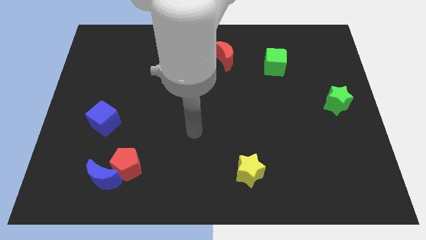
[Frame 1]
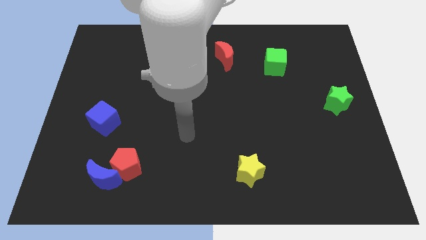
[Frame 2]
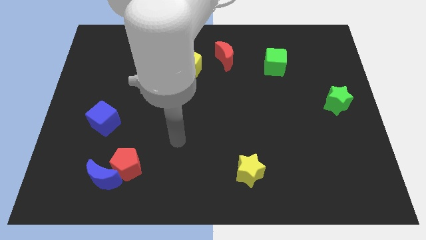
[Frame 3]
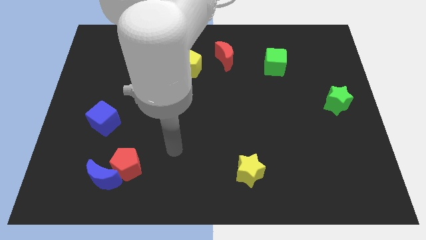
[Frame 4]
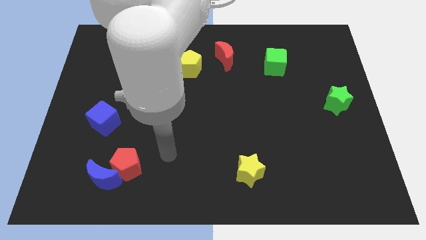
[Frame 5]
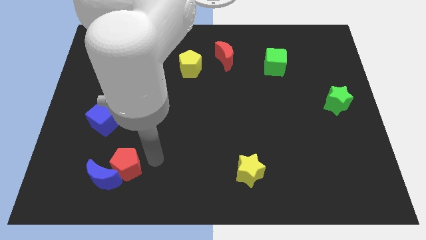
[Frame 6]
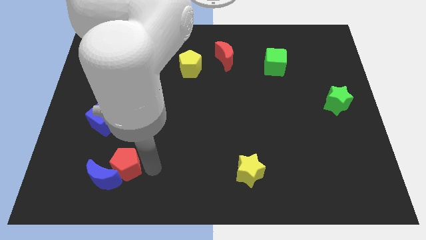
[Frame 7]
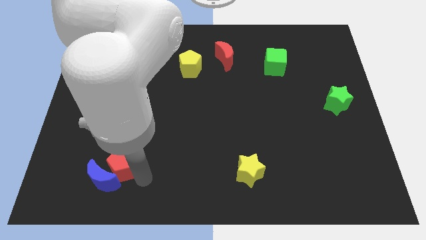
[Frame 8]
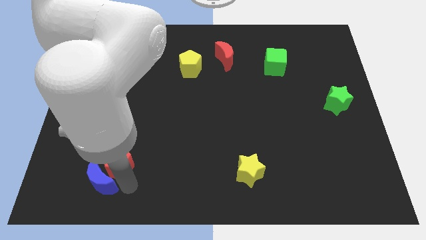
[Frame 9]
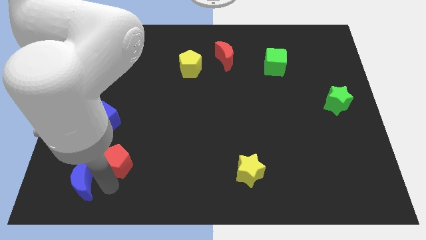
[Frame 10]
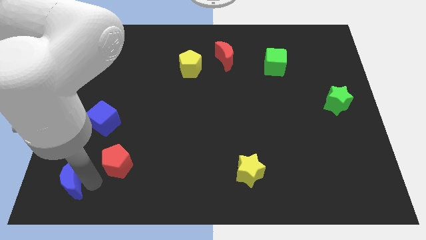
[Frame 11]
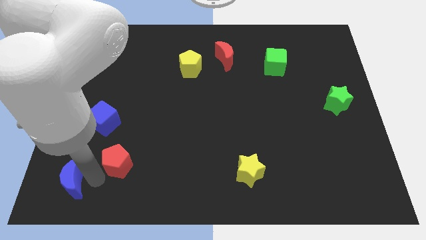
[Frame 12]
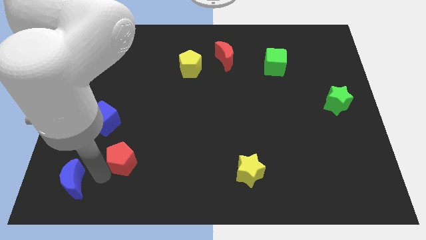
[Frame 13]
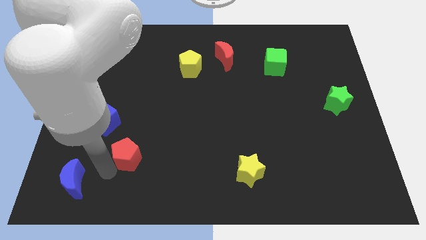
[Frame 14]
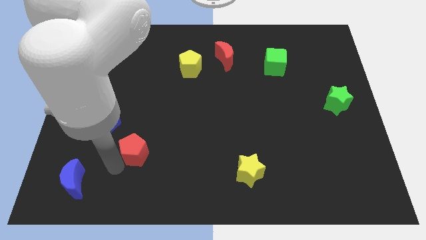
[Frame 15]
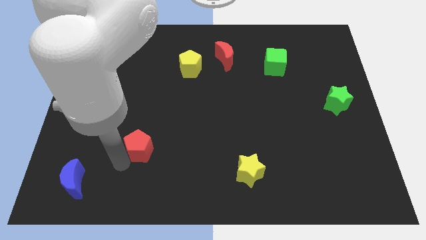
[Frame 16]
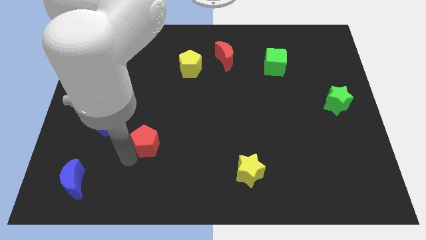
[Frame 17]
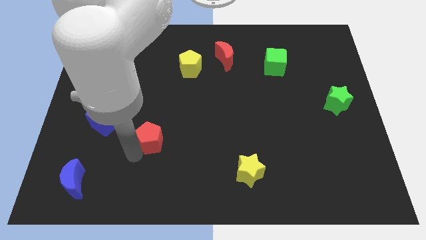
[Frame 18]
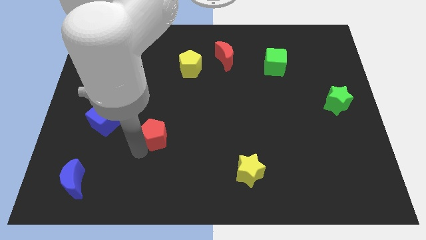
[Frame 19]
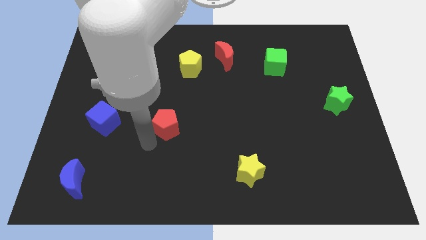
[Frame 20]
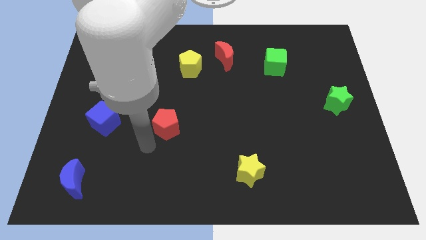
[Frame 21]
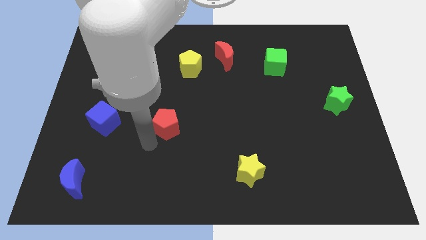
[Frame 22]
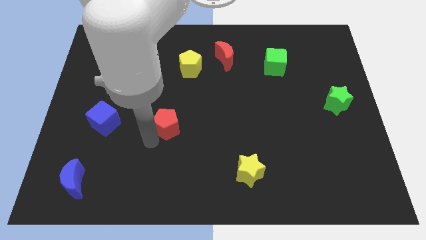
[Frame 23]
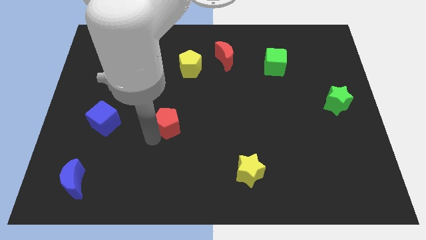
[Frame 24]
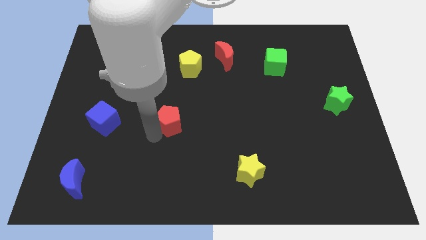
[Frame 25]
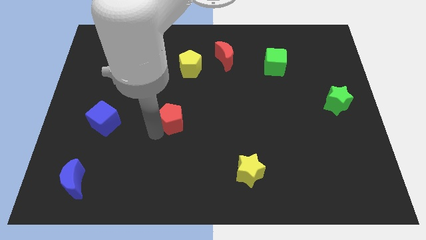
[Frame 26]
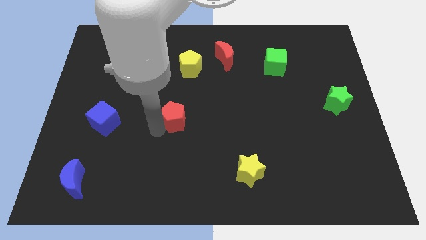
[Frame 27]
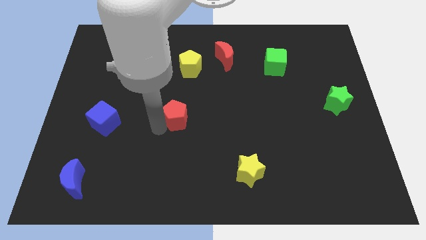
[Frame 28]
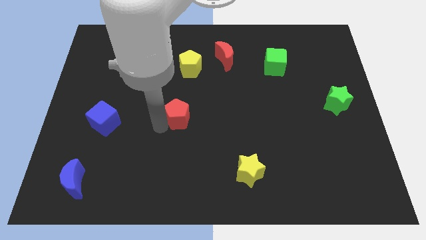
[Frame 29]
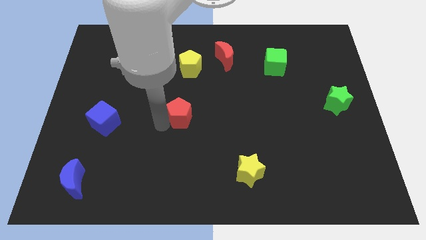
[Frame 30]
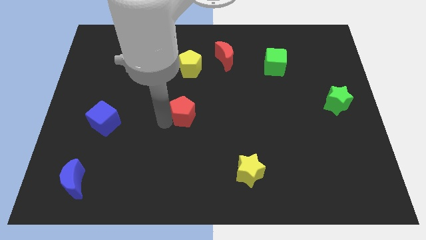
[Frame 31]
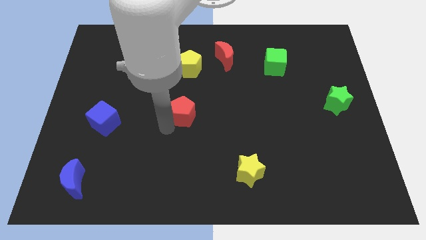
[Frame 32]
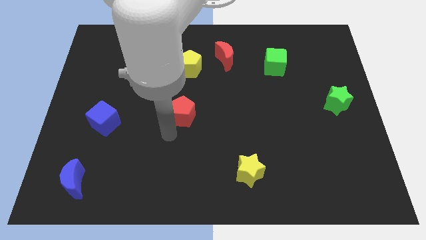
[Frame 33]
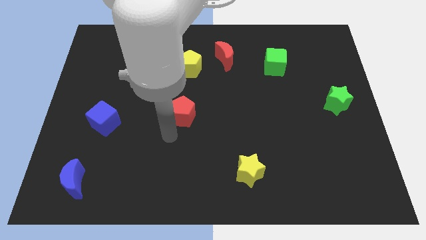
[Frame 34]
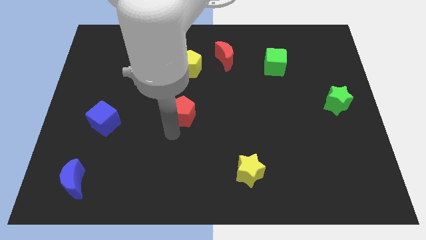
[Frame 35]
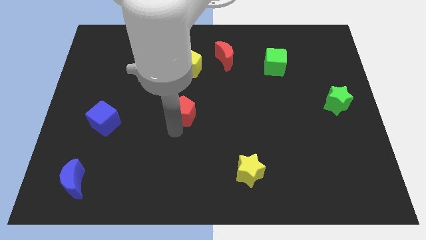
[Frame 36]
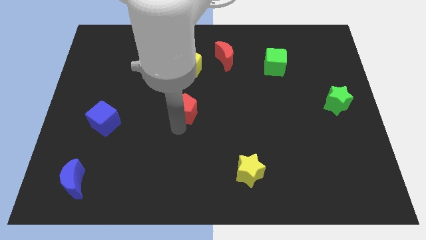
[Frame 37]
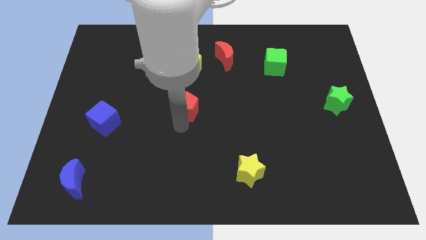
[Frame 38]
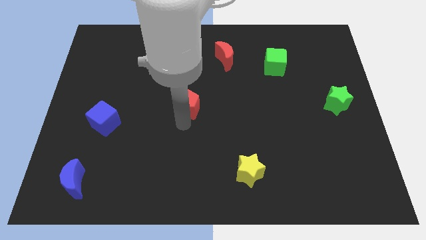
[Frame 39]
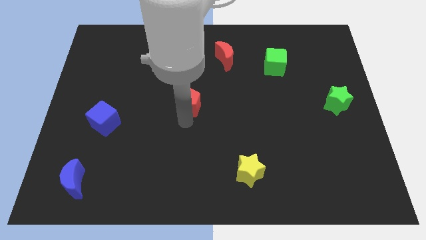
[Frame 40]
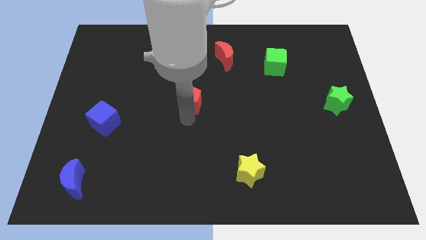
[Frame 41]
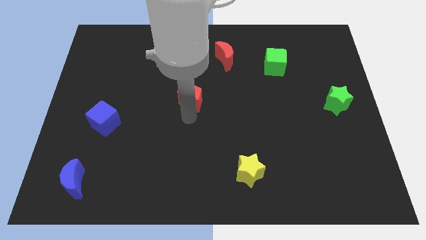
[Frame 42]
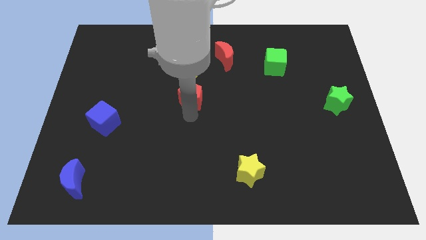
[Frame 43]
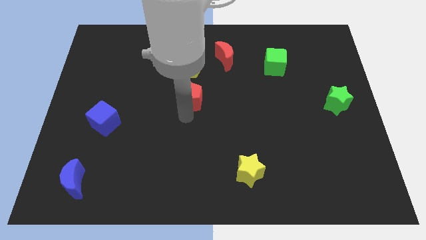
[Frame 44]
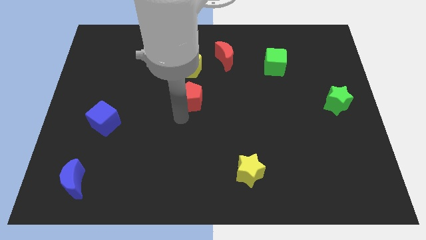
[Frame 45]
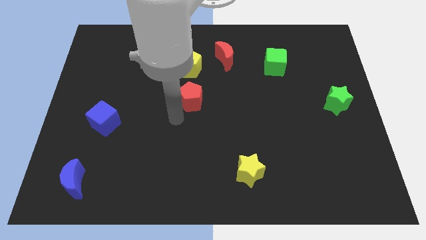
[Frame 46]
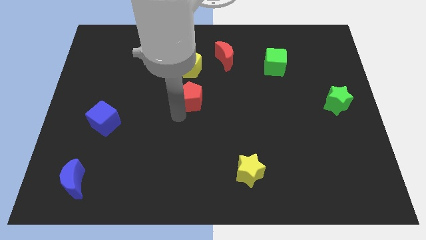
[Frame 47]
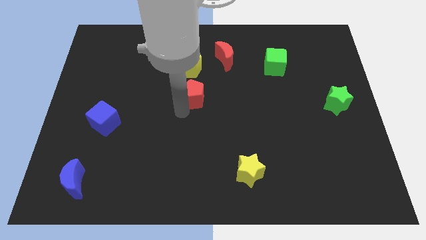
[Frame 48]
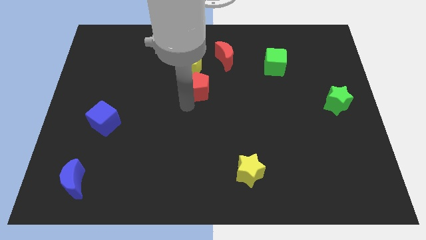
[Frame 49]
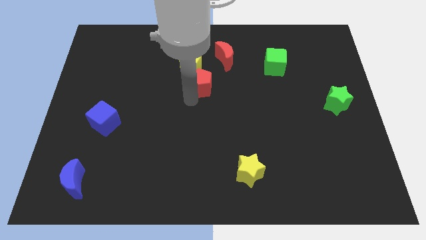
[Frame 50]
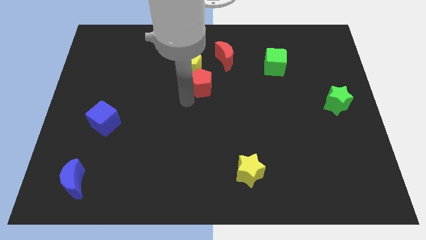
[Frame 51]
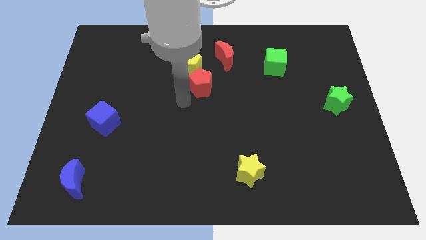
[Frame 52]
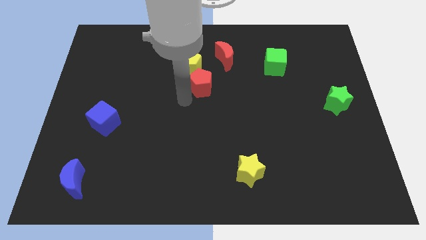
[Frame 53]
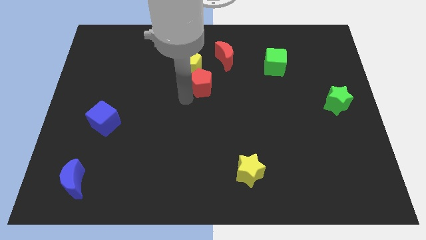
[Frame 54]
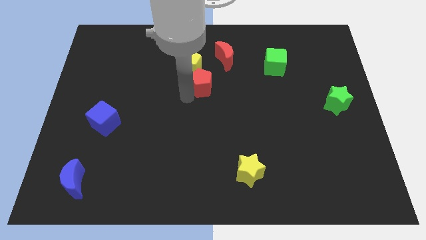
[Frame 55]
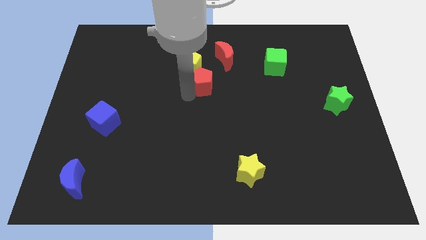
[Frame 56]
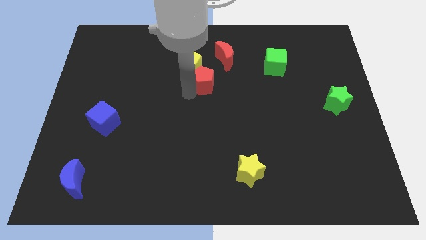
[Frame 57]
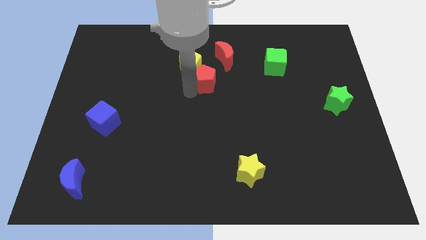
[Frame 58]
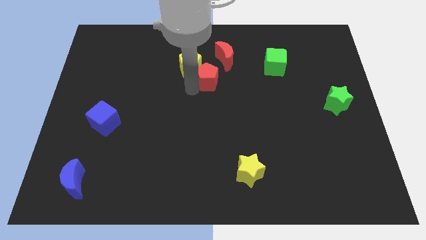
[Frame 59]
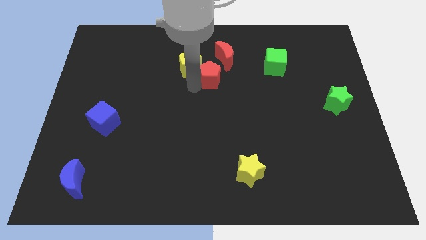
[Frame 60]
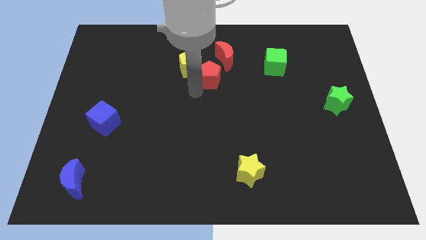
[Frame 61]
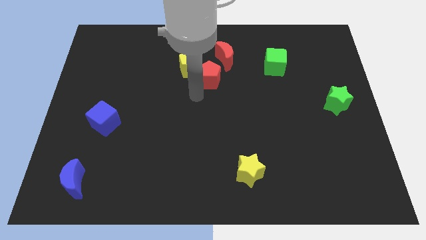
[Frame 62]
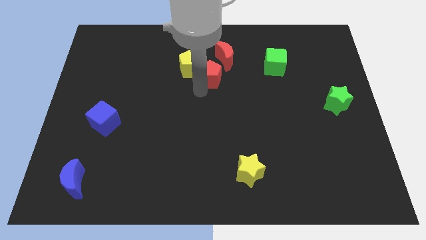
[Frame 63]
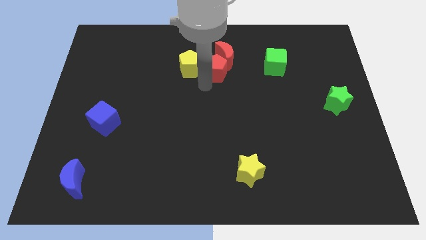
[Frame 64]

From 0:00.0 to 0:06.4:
move the red pentagon to the red moon

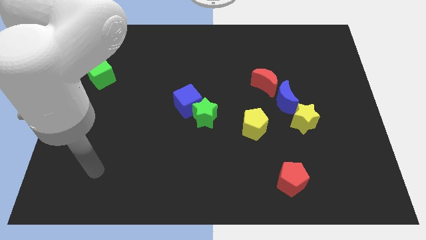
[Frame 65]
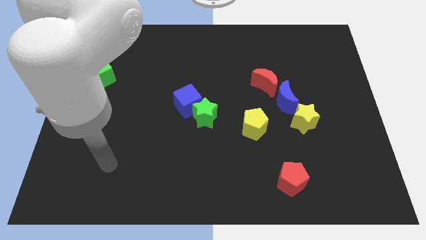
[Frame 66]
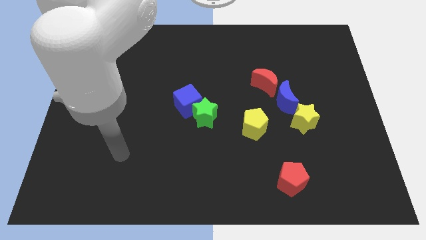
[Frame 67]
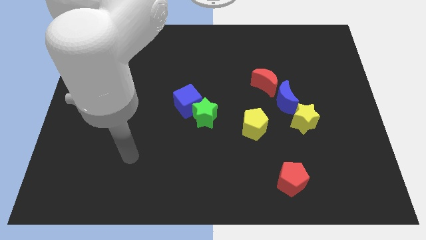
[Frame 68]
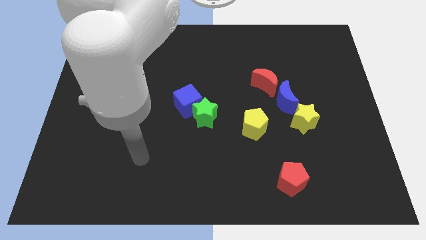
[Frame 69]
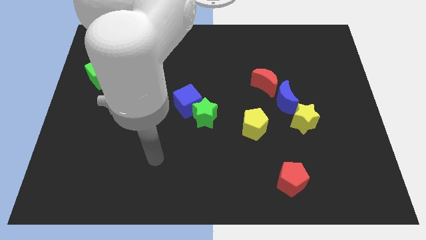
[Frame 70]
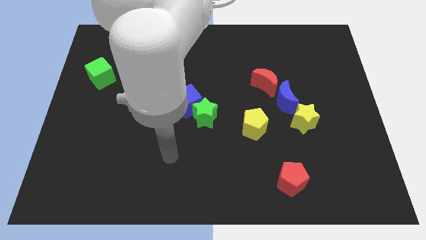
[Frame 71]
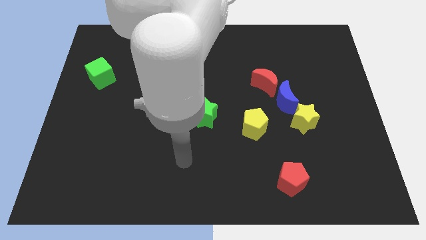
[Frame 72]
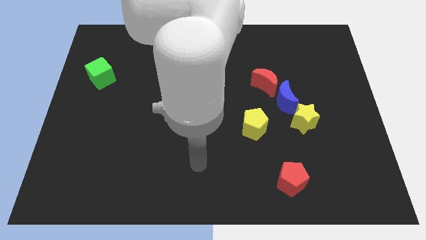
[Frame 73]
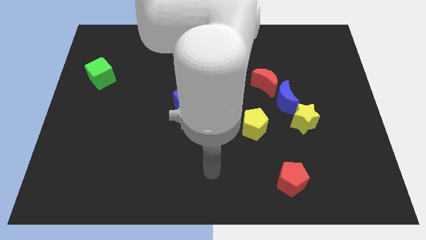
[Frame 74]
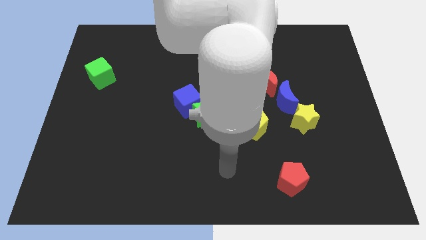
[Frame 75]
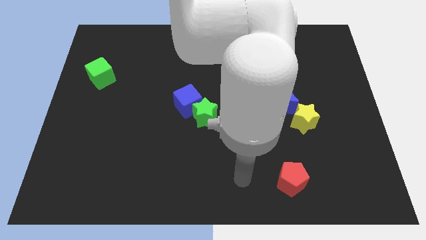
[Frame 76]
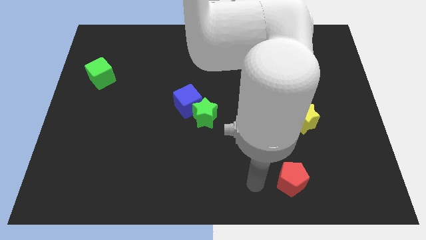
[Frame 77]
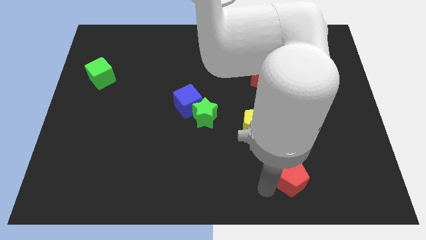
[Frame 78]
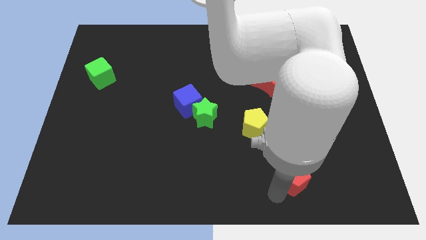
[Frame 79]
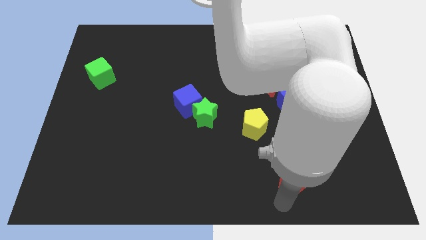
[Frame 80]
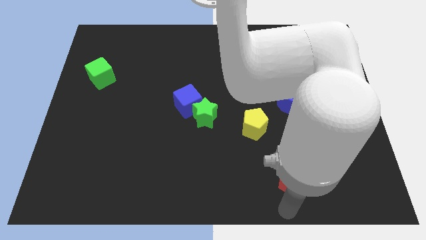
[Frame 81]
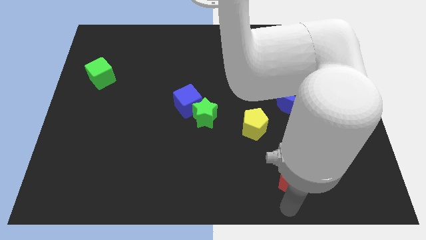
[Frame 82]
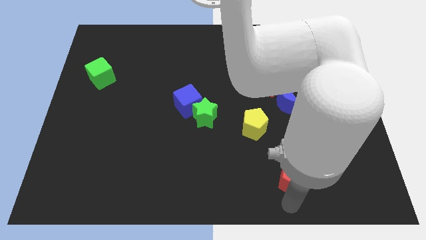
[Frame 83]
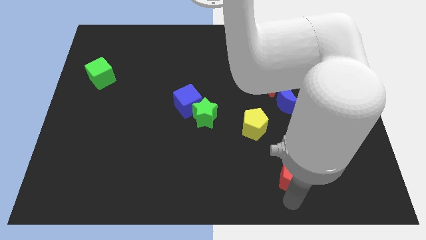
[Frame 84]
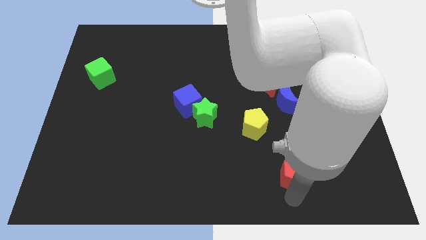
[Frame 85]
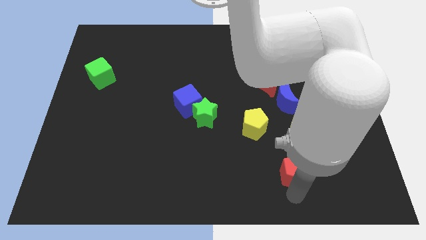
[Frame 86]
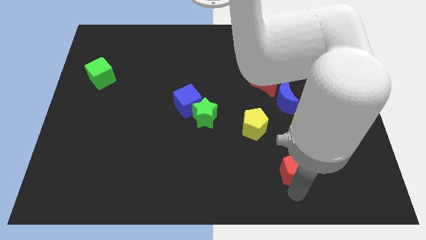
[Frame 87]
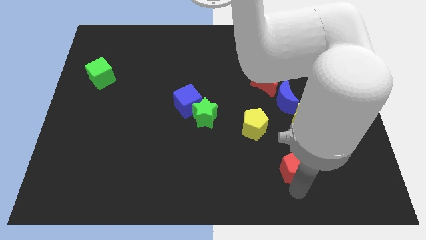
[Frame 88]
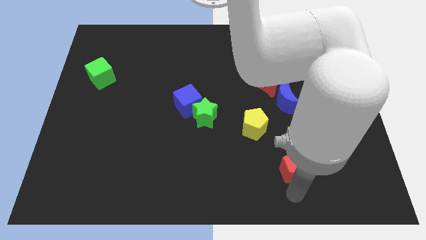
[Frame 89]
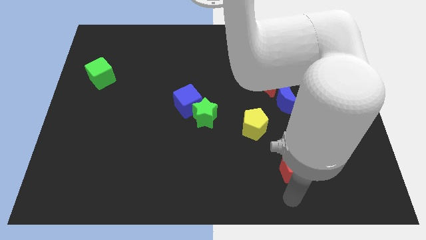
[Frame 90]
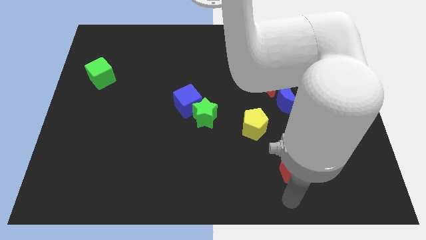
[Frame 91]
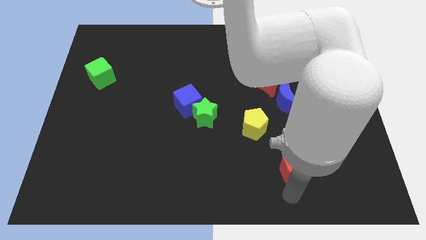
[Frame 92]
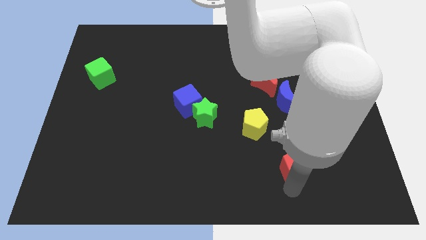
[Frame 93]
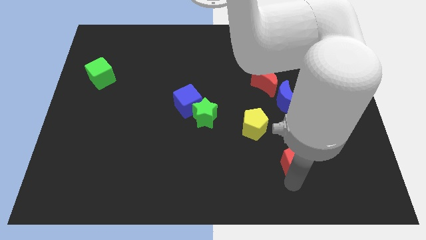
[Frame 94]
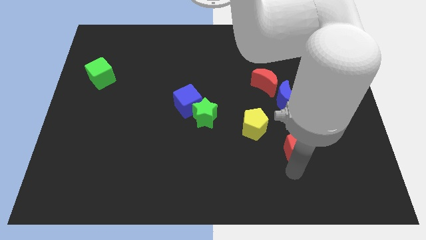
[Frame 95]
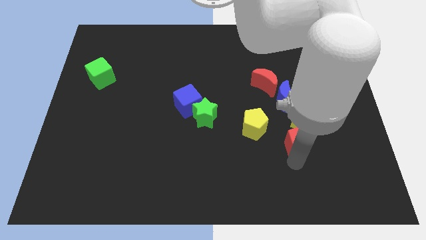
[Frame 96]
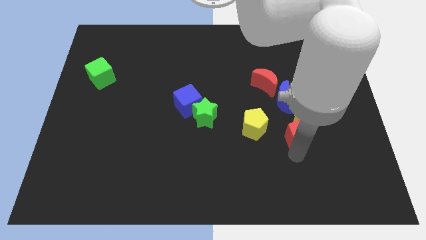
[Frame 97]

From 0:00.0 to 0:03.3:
move the red pentagon close to the yellow star
